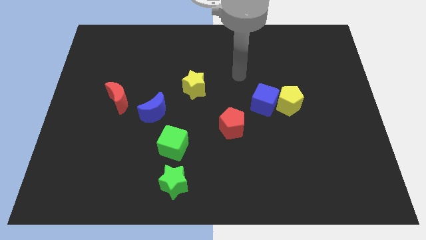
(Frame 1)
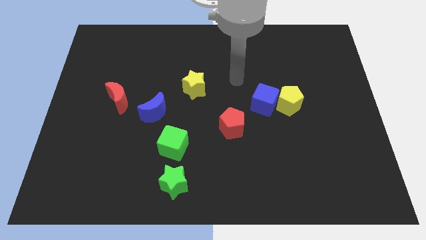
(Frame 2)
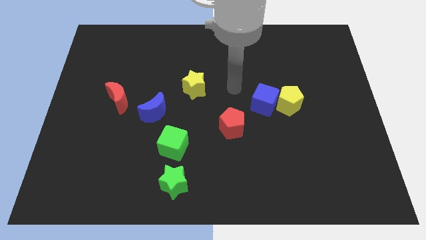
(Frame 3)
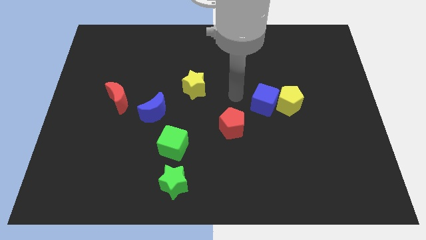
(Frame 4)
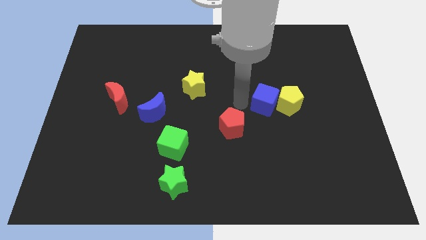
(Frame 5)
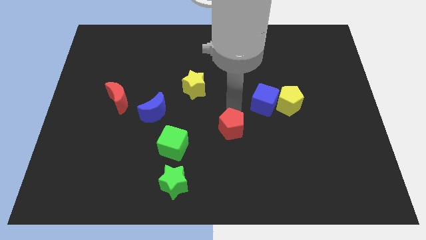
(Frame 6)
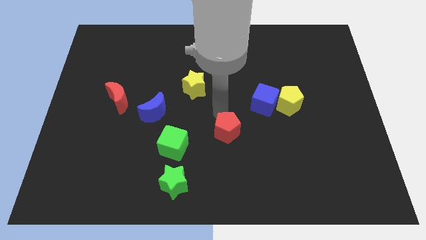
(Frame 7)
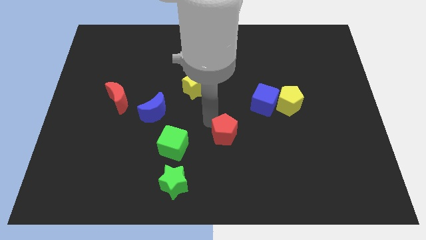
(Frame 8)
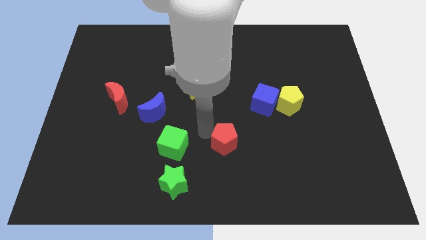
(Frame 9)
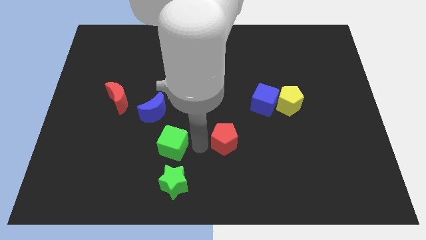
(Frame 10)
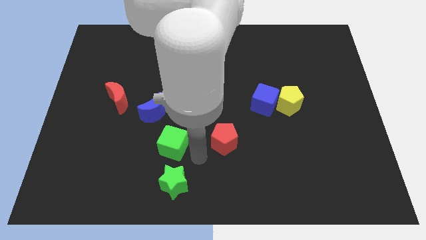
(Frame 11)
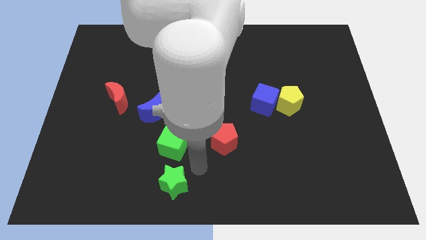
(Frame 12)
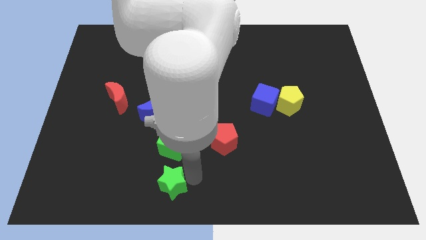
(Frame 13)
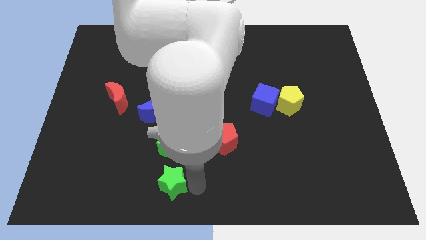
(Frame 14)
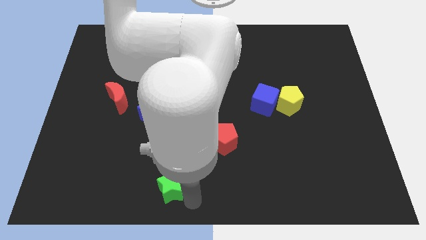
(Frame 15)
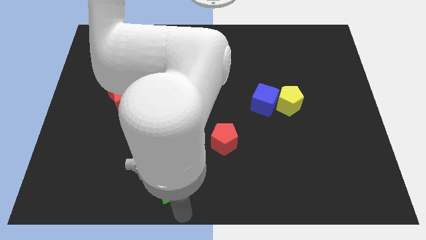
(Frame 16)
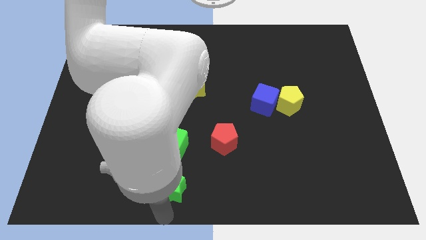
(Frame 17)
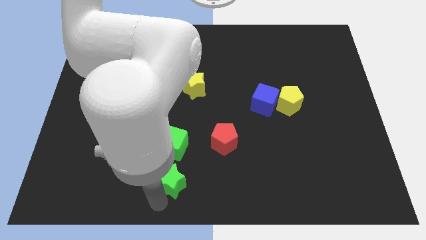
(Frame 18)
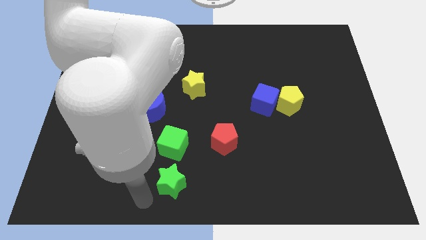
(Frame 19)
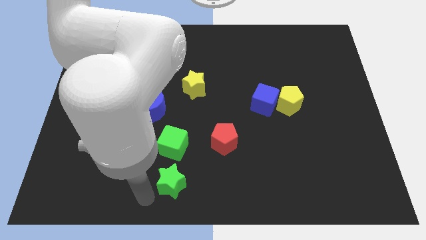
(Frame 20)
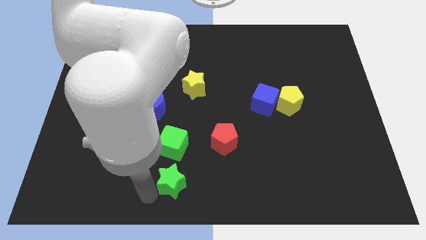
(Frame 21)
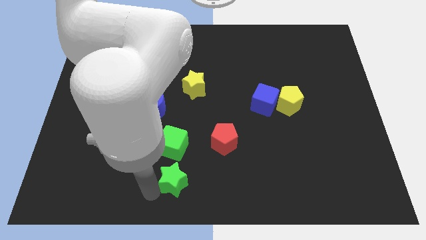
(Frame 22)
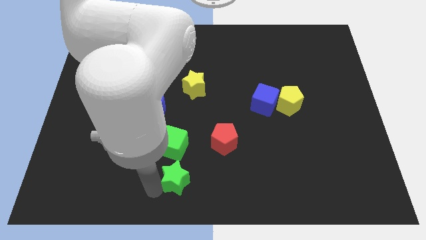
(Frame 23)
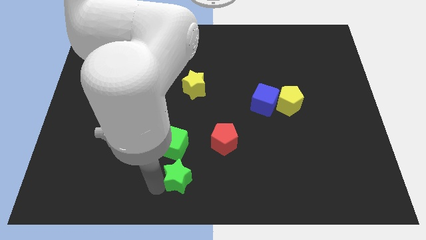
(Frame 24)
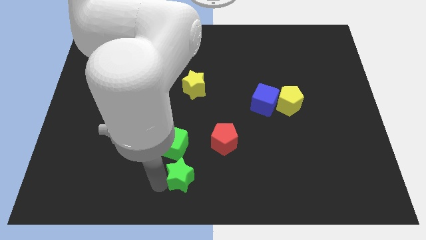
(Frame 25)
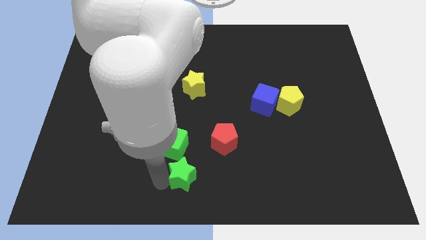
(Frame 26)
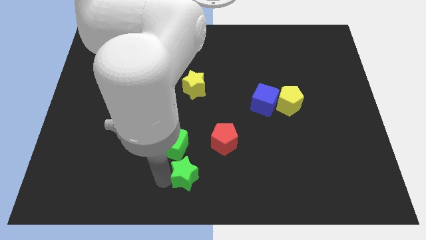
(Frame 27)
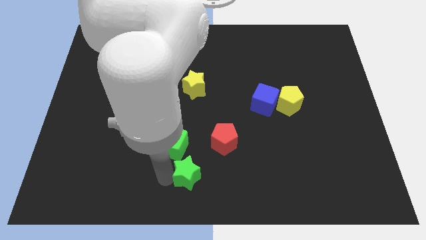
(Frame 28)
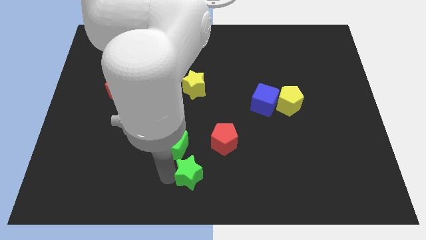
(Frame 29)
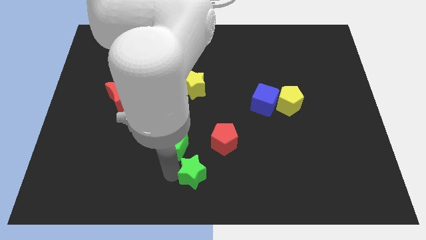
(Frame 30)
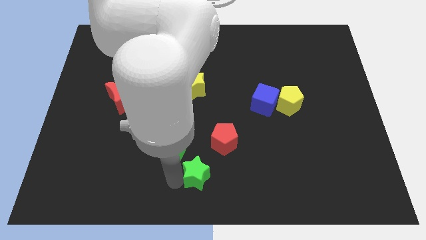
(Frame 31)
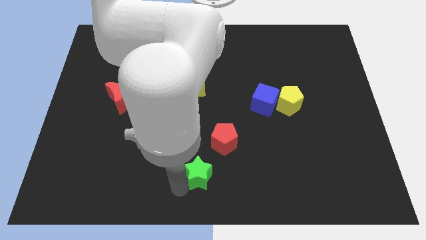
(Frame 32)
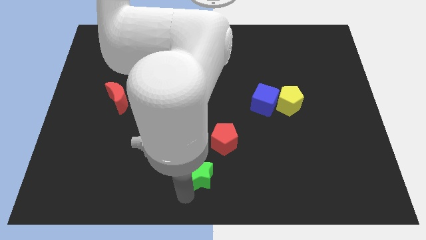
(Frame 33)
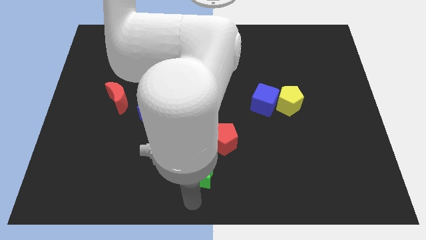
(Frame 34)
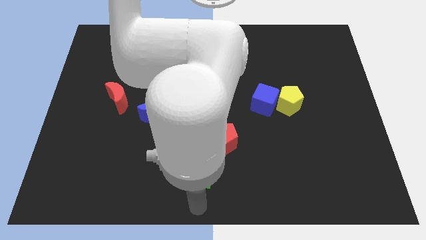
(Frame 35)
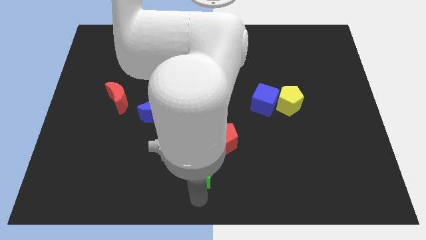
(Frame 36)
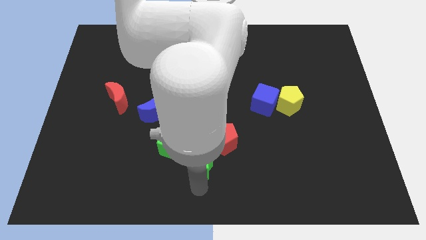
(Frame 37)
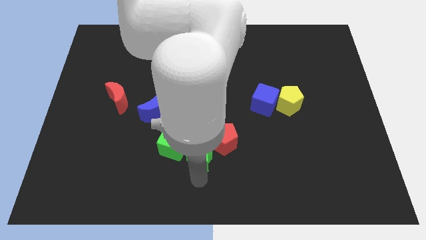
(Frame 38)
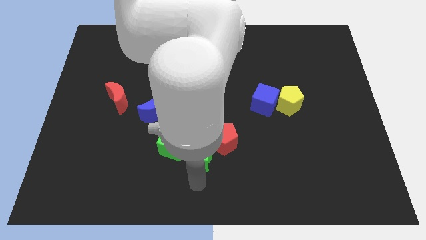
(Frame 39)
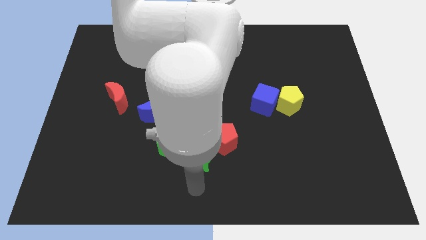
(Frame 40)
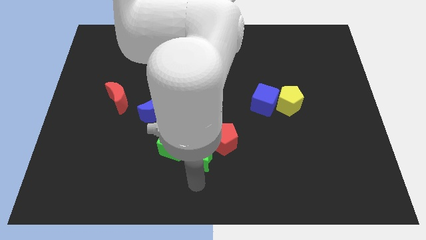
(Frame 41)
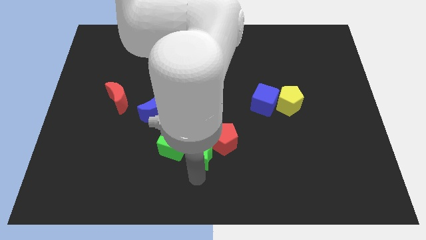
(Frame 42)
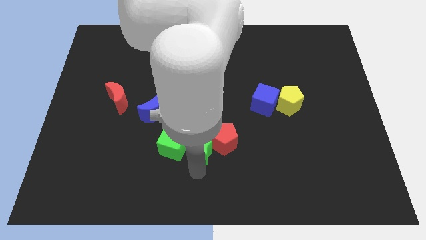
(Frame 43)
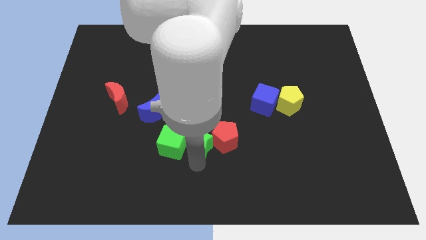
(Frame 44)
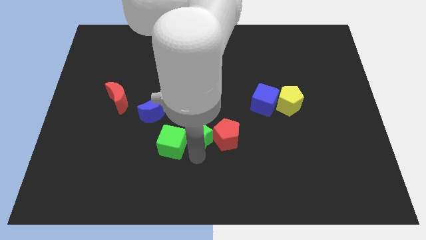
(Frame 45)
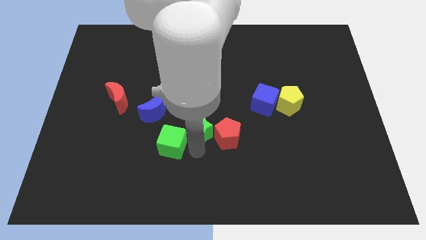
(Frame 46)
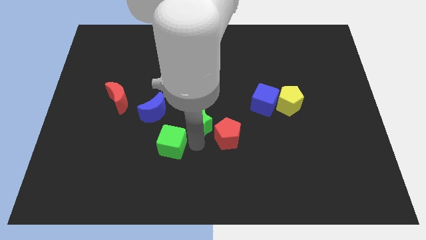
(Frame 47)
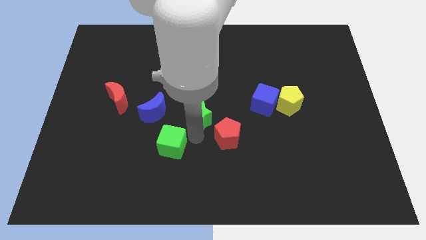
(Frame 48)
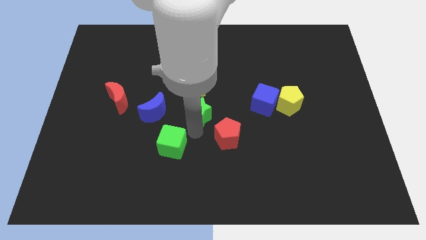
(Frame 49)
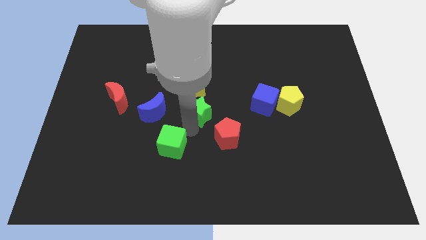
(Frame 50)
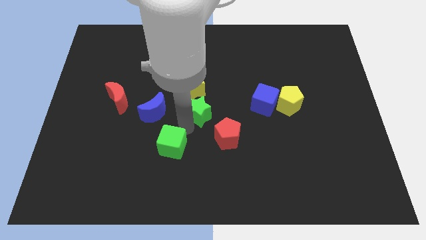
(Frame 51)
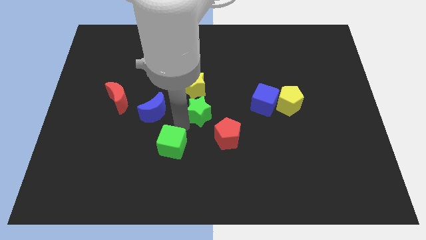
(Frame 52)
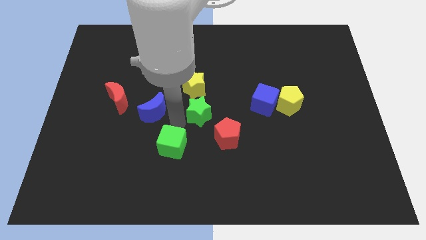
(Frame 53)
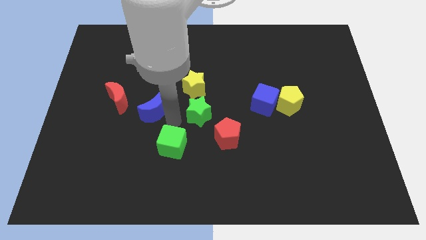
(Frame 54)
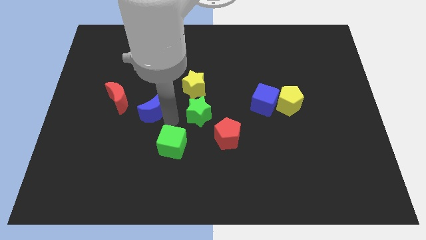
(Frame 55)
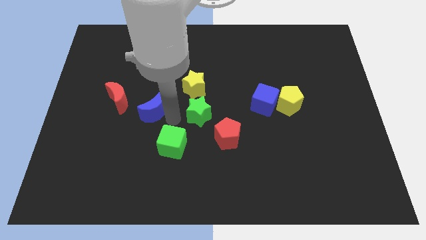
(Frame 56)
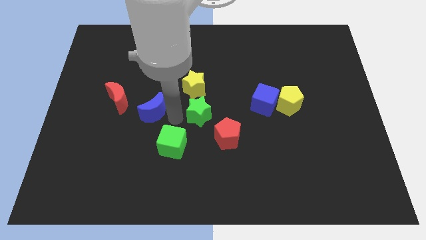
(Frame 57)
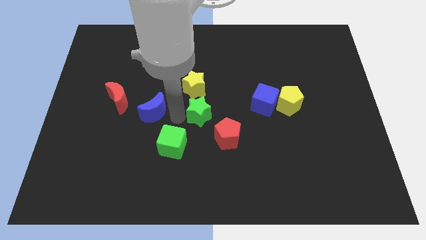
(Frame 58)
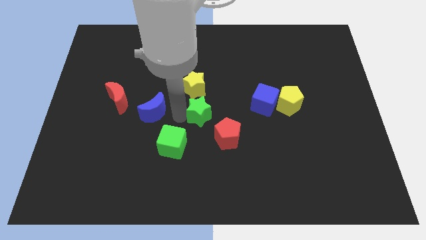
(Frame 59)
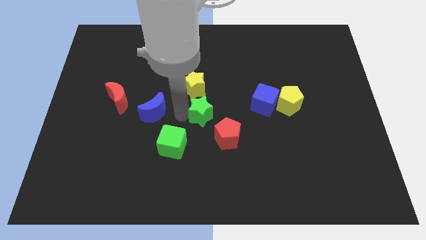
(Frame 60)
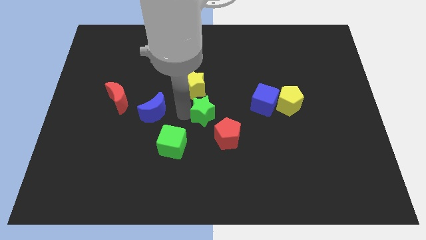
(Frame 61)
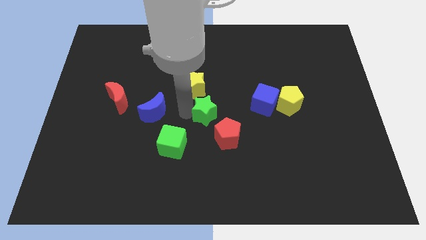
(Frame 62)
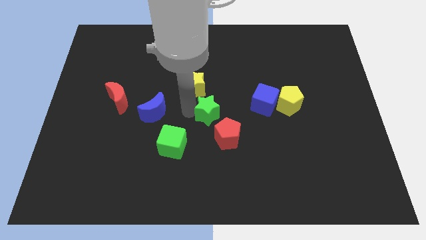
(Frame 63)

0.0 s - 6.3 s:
push the green star to the top of the red pentagon

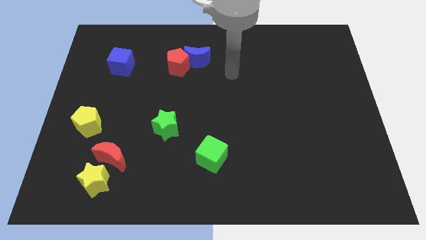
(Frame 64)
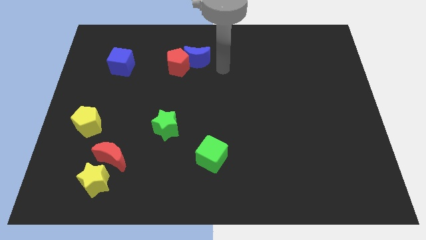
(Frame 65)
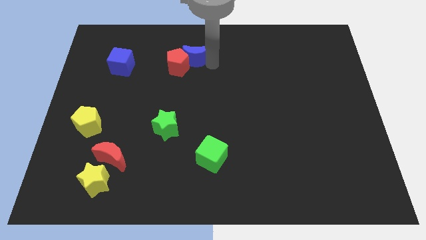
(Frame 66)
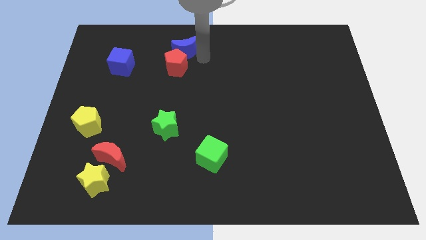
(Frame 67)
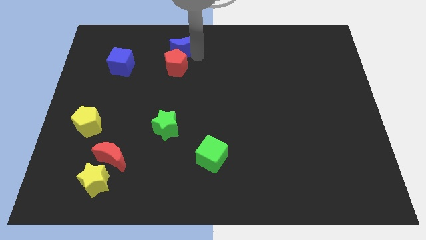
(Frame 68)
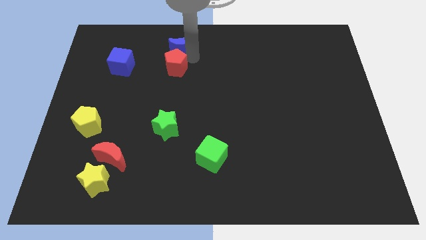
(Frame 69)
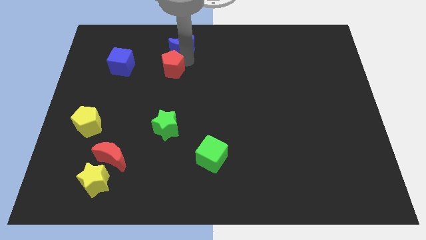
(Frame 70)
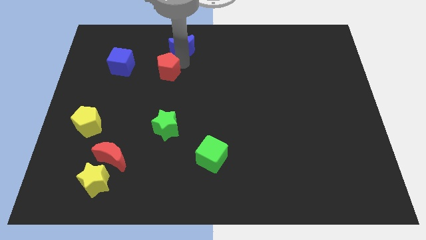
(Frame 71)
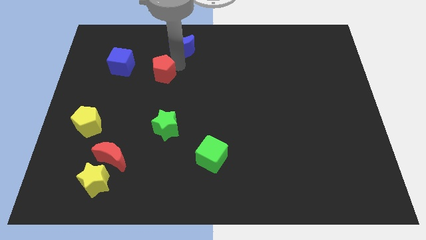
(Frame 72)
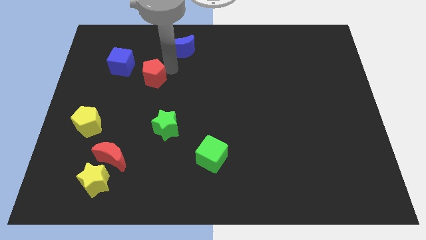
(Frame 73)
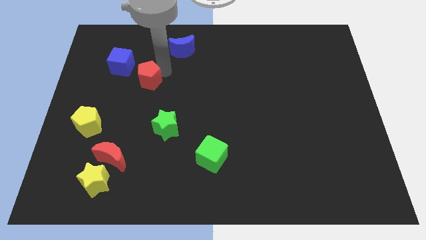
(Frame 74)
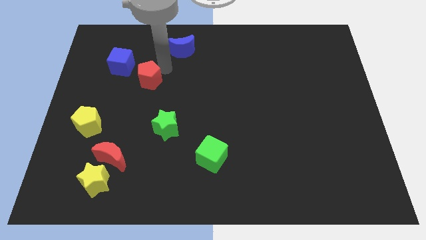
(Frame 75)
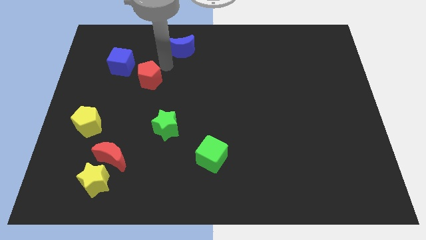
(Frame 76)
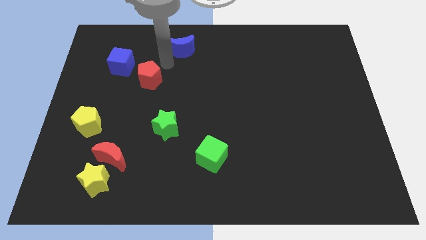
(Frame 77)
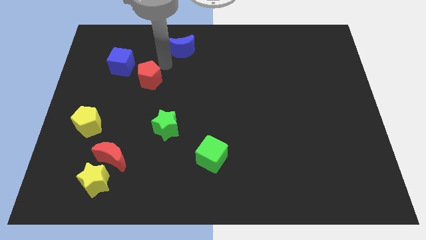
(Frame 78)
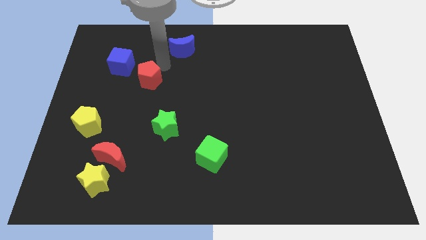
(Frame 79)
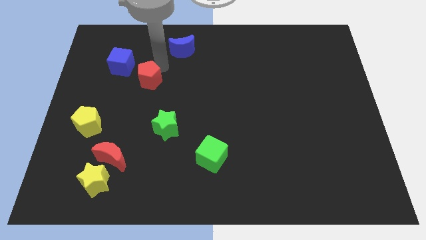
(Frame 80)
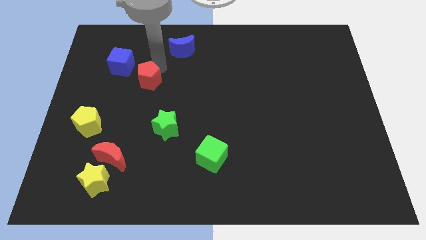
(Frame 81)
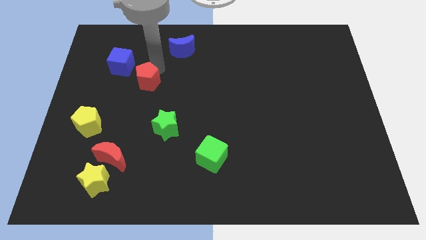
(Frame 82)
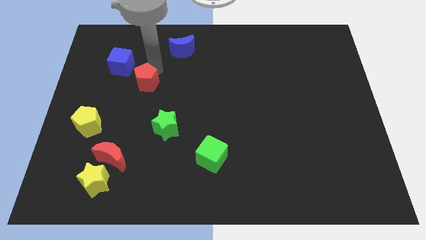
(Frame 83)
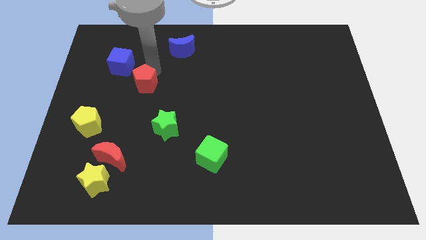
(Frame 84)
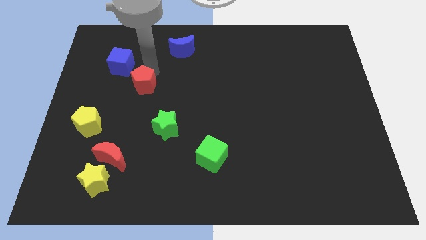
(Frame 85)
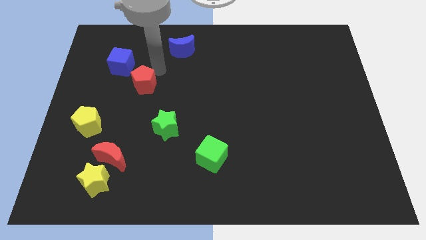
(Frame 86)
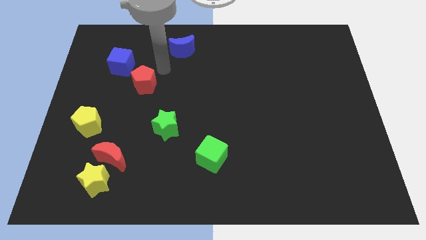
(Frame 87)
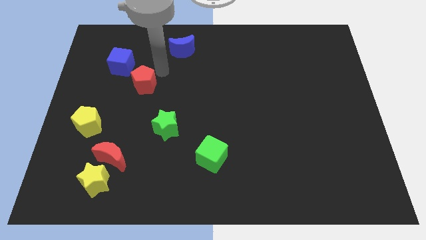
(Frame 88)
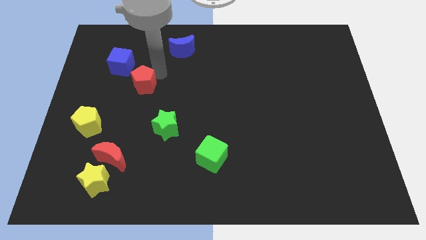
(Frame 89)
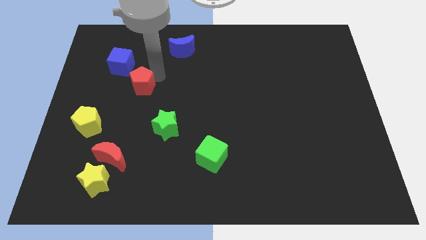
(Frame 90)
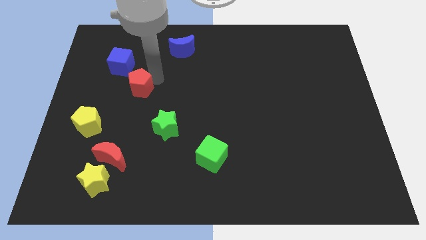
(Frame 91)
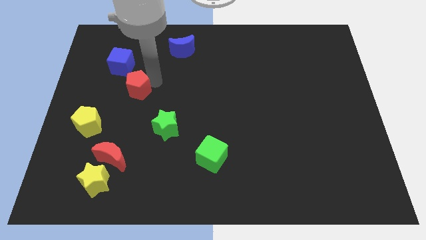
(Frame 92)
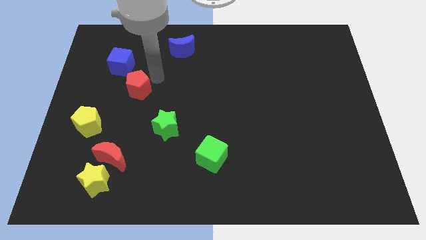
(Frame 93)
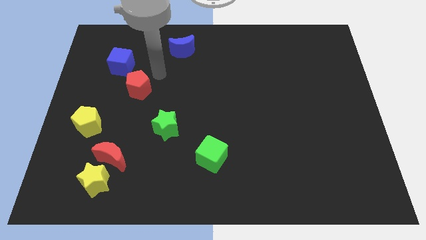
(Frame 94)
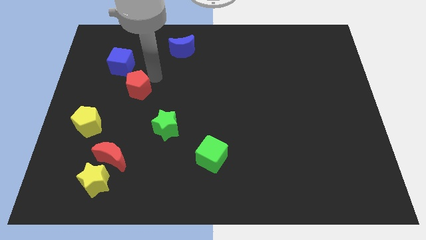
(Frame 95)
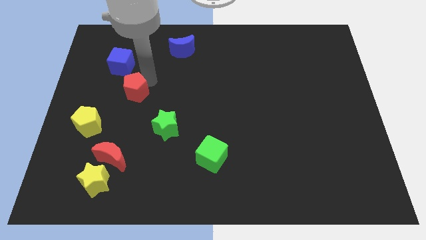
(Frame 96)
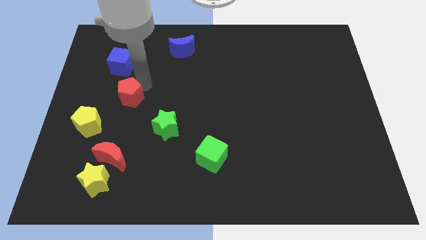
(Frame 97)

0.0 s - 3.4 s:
move the red pentagon to the top right side of the yellow pentagon
